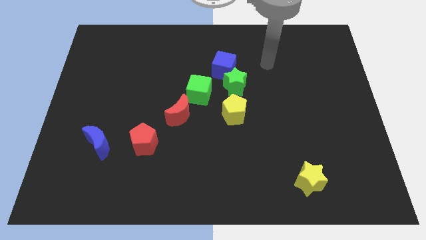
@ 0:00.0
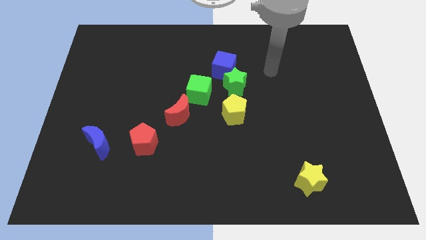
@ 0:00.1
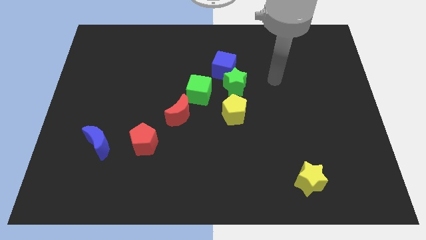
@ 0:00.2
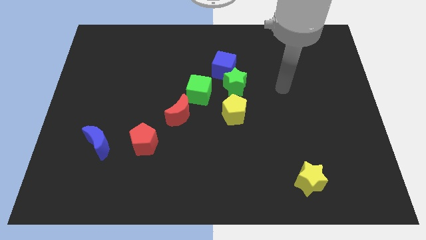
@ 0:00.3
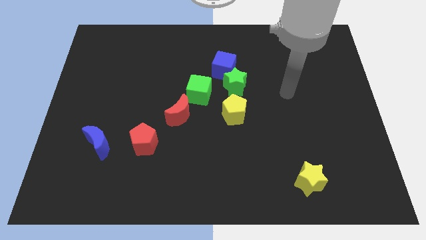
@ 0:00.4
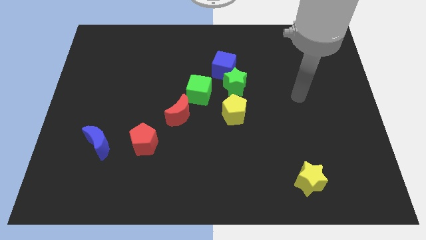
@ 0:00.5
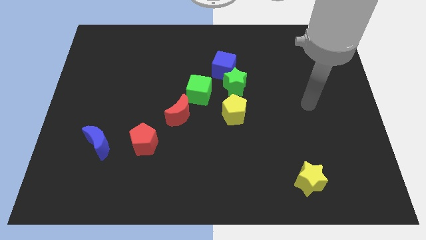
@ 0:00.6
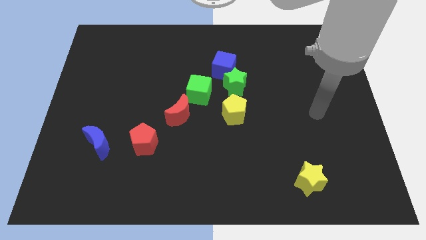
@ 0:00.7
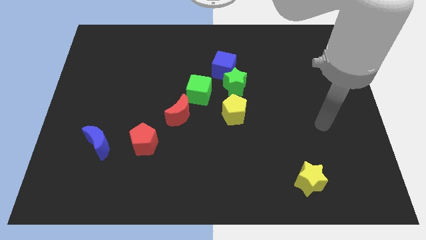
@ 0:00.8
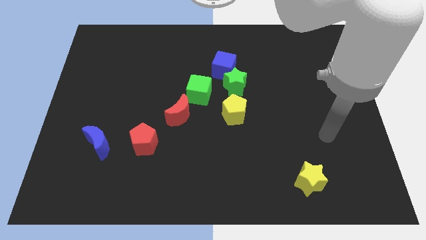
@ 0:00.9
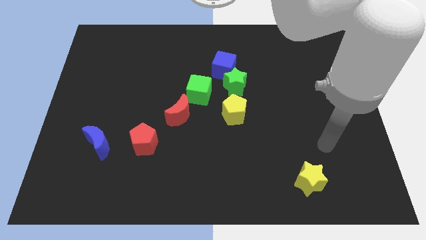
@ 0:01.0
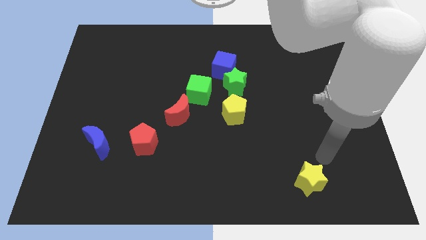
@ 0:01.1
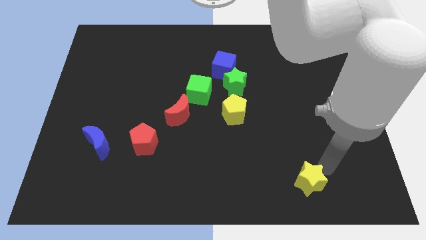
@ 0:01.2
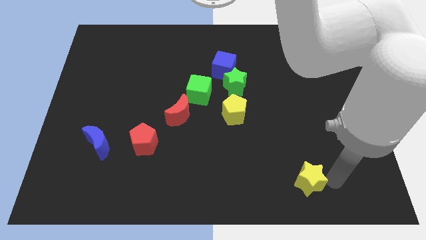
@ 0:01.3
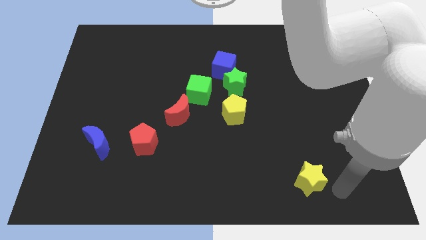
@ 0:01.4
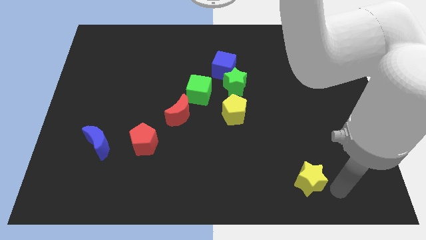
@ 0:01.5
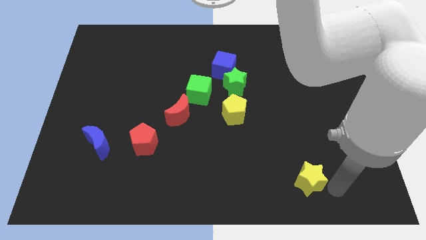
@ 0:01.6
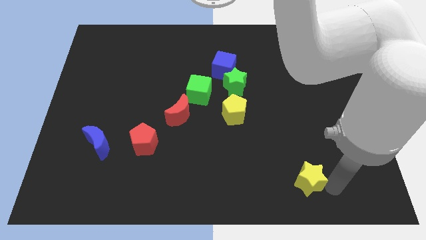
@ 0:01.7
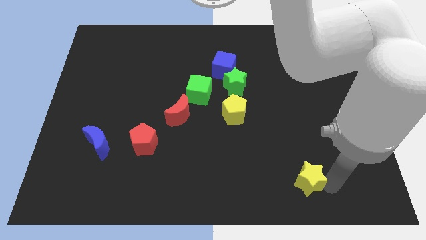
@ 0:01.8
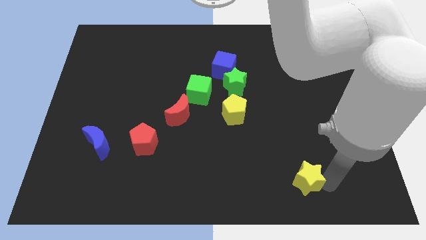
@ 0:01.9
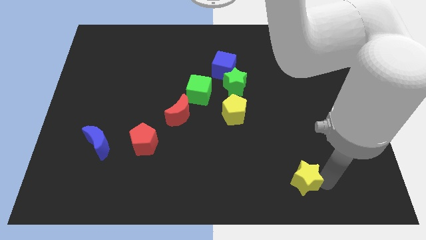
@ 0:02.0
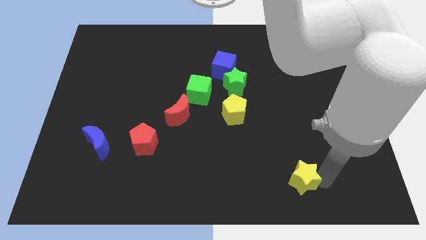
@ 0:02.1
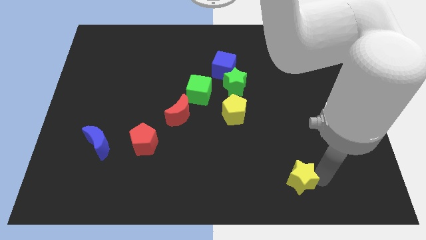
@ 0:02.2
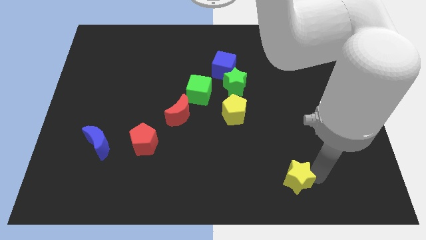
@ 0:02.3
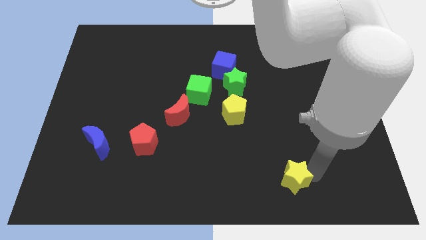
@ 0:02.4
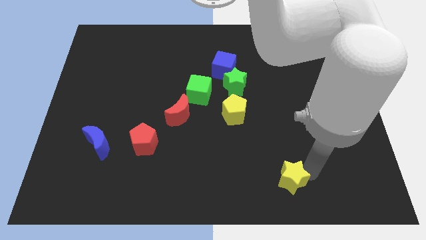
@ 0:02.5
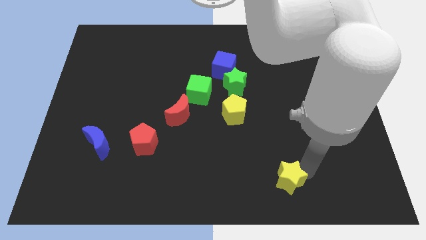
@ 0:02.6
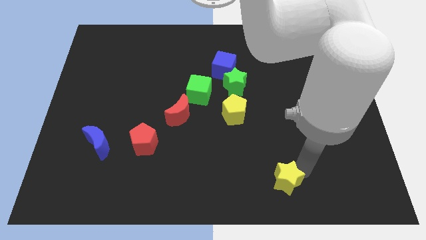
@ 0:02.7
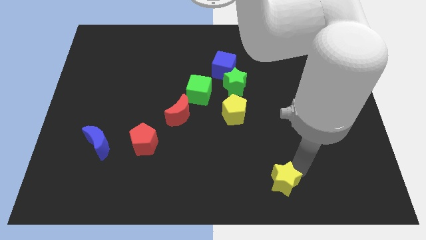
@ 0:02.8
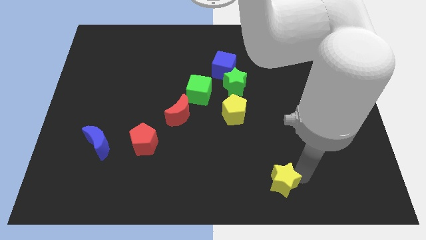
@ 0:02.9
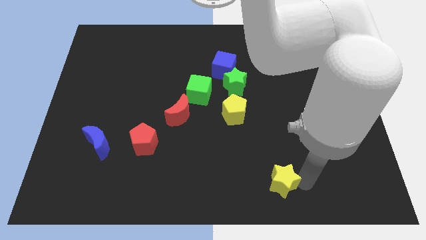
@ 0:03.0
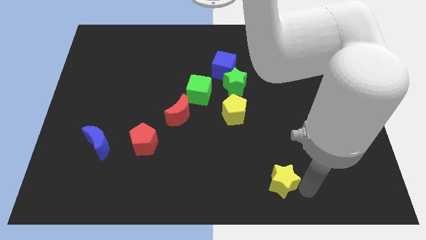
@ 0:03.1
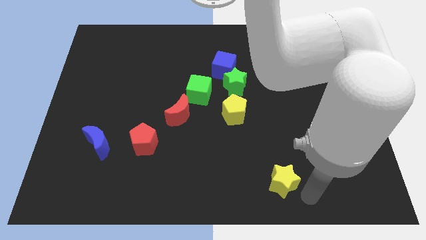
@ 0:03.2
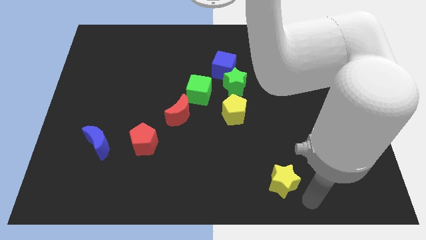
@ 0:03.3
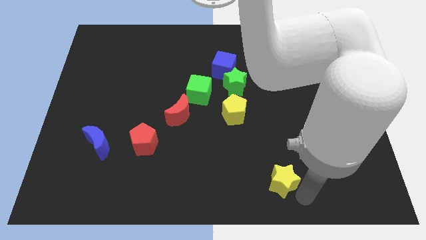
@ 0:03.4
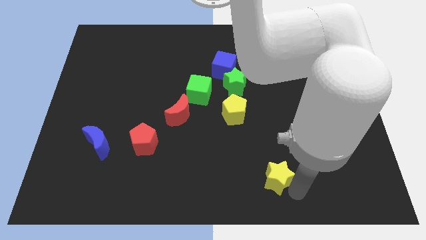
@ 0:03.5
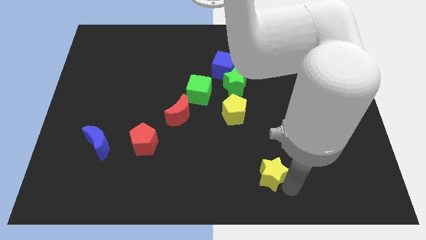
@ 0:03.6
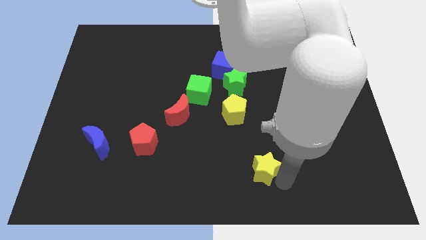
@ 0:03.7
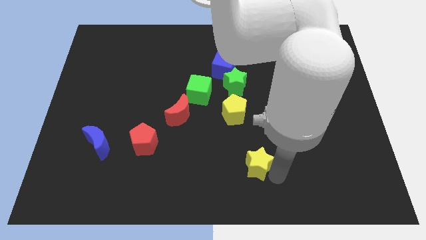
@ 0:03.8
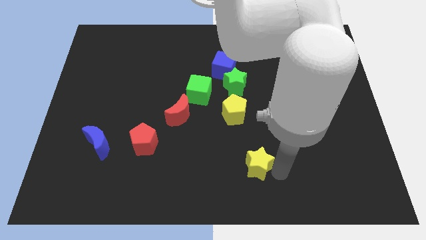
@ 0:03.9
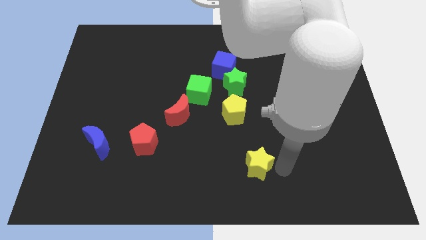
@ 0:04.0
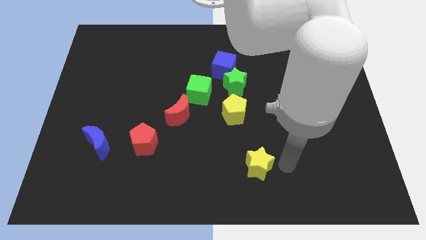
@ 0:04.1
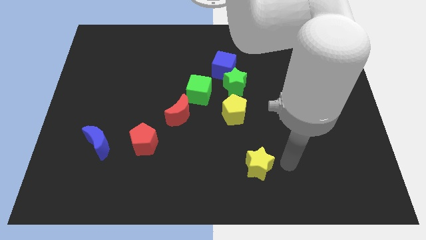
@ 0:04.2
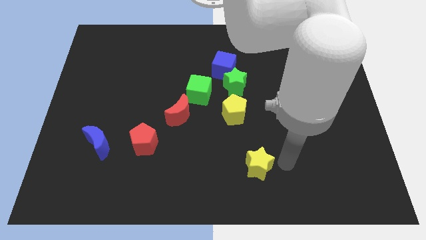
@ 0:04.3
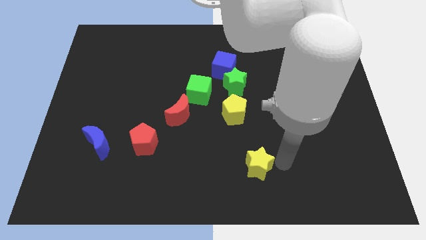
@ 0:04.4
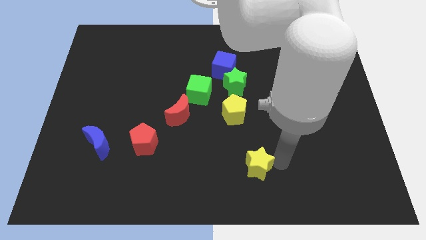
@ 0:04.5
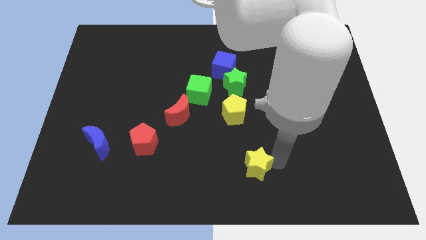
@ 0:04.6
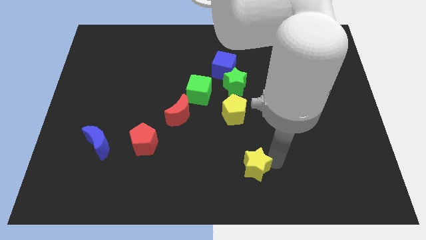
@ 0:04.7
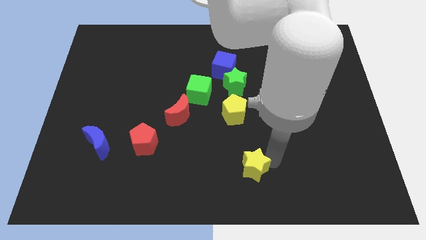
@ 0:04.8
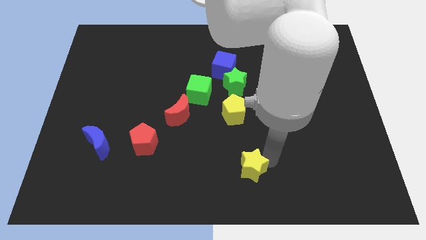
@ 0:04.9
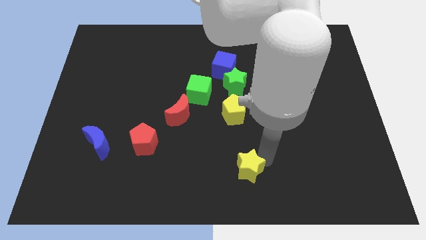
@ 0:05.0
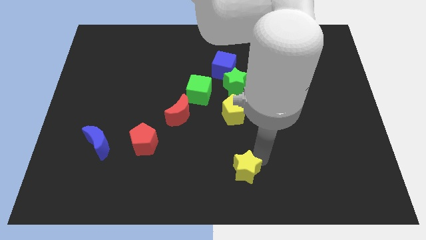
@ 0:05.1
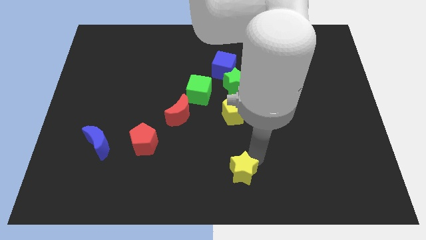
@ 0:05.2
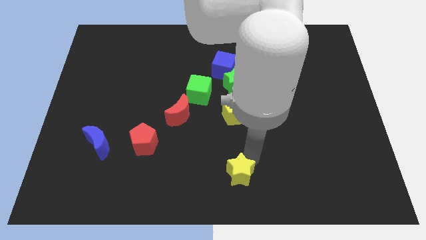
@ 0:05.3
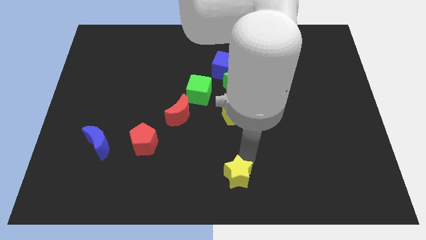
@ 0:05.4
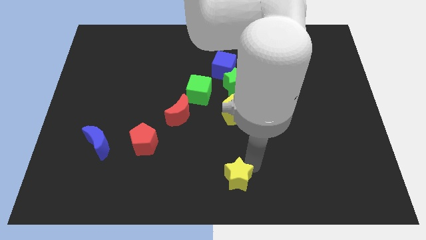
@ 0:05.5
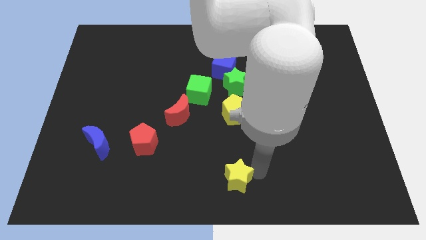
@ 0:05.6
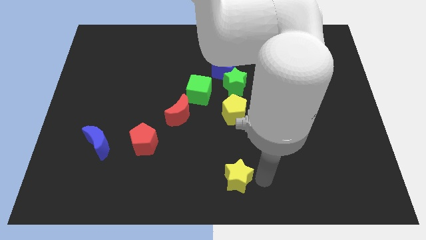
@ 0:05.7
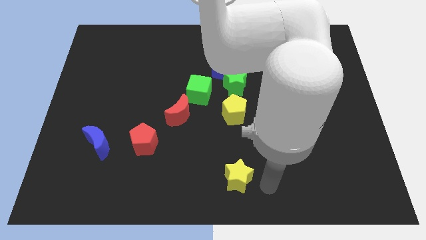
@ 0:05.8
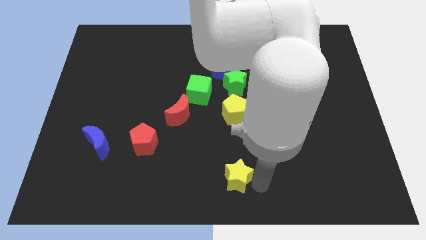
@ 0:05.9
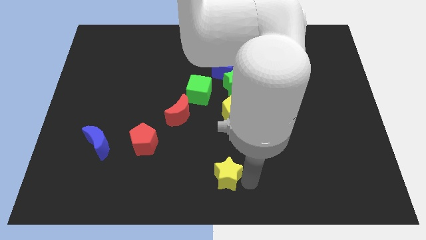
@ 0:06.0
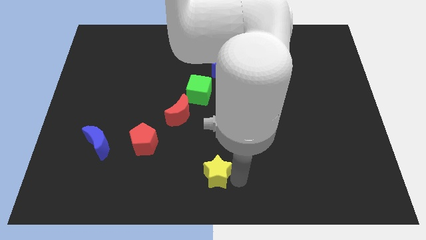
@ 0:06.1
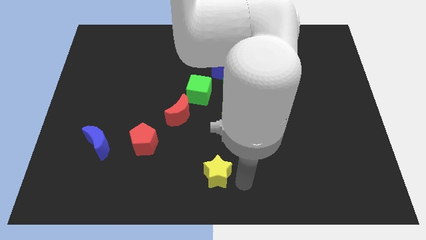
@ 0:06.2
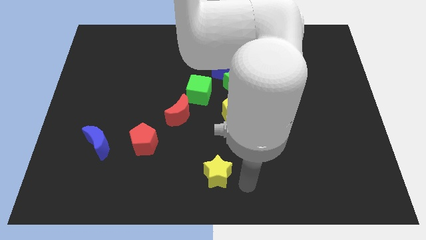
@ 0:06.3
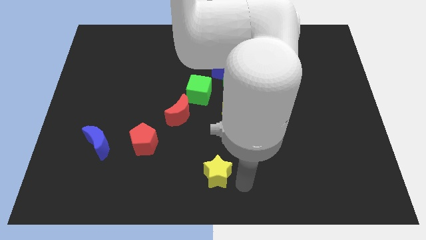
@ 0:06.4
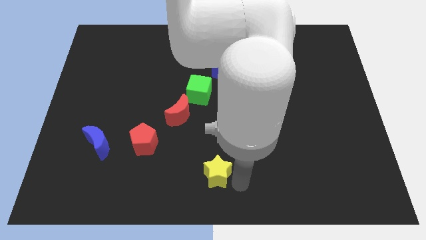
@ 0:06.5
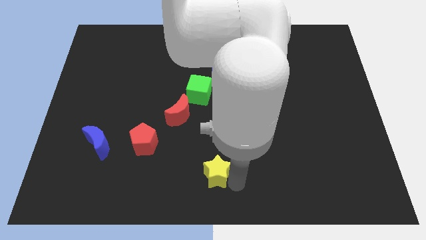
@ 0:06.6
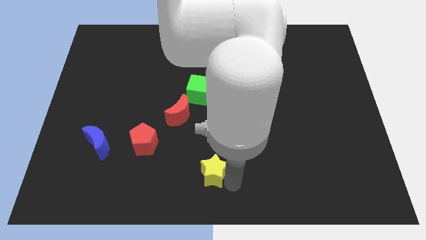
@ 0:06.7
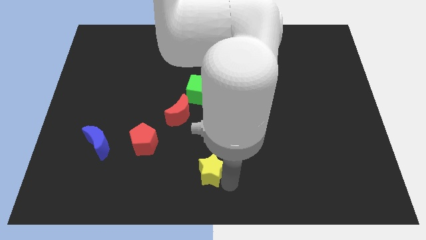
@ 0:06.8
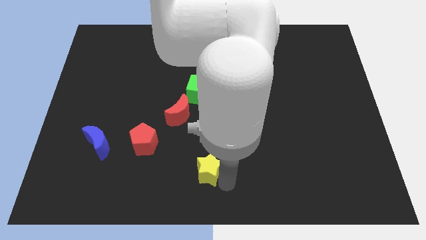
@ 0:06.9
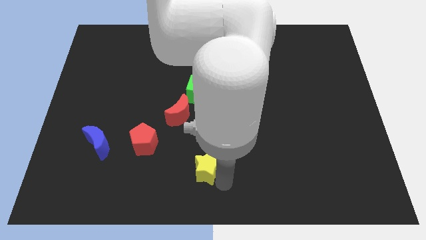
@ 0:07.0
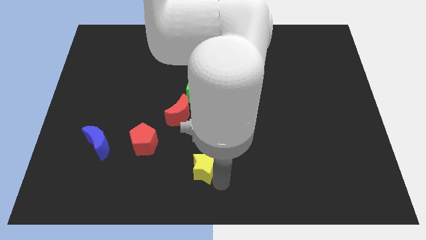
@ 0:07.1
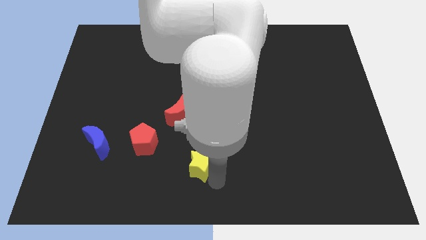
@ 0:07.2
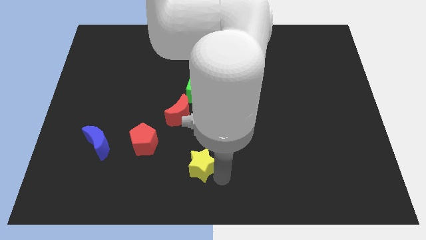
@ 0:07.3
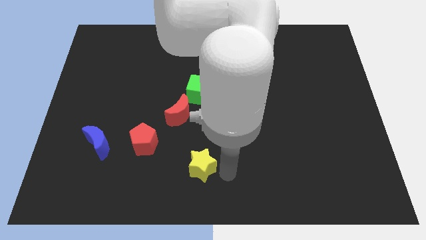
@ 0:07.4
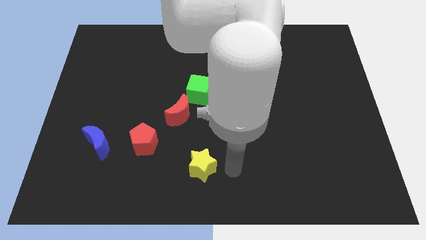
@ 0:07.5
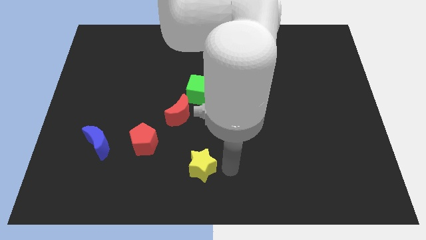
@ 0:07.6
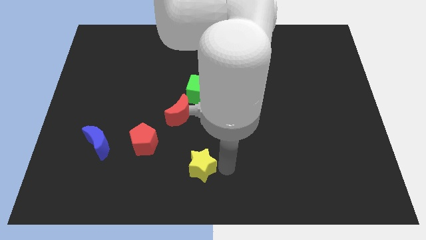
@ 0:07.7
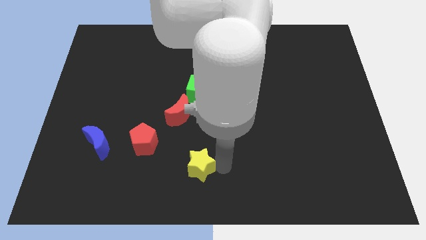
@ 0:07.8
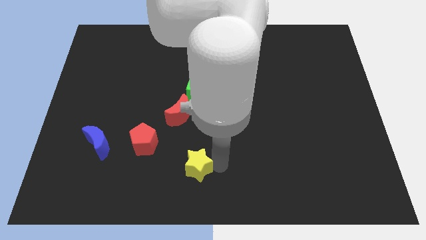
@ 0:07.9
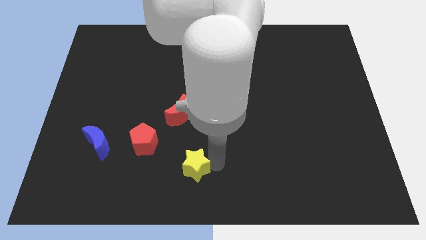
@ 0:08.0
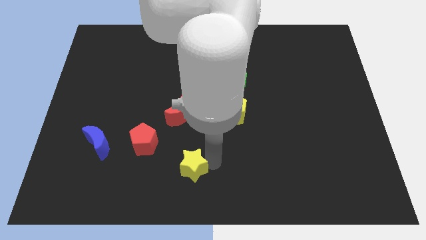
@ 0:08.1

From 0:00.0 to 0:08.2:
move the yellow star diagonally down and to the right of the red pentagon
